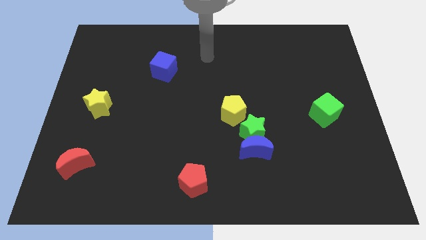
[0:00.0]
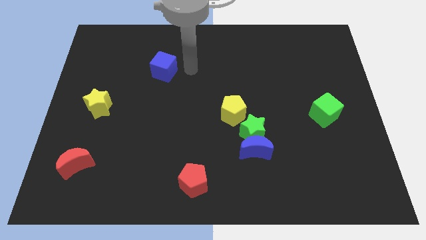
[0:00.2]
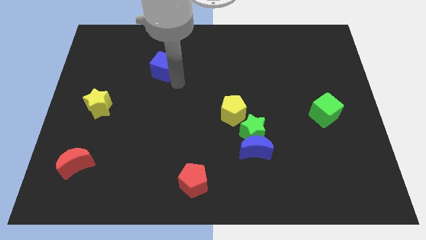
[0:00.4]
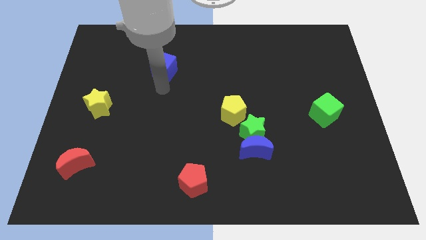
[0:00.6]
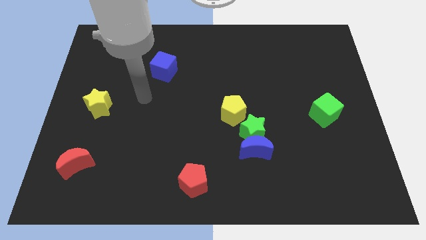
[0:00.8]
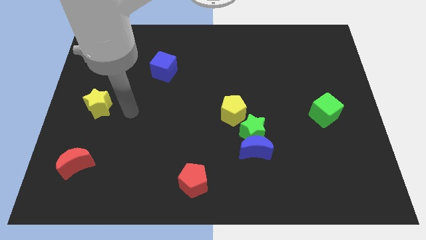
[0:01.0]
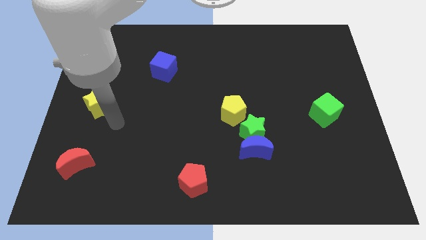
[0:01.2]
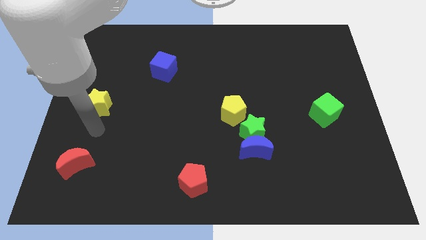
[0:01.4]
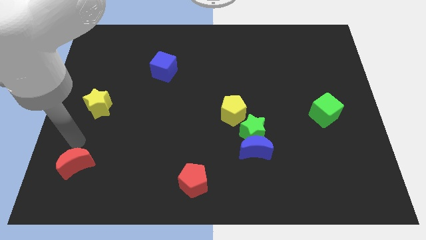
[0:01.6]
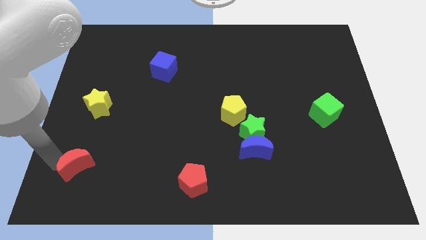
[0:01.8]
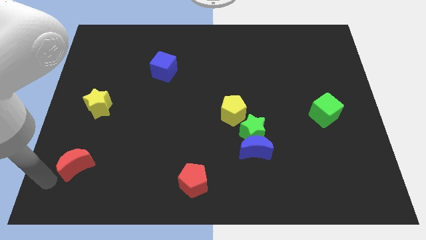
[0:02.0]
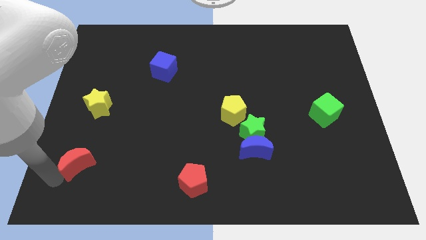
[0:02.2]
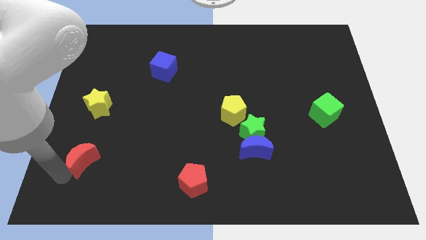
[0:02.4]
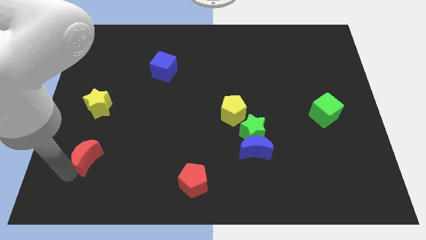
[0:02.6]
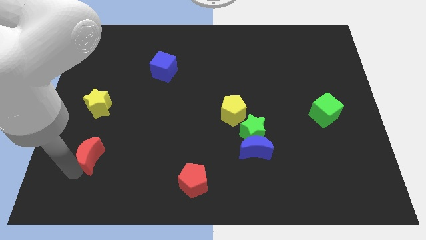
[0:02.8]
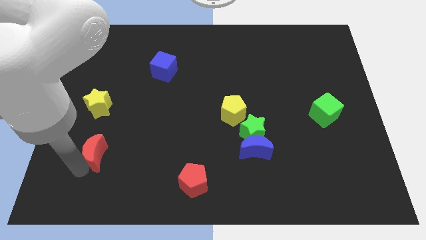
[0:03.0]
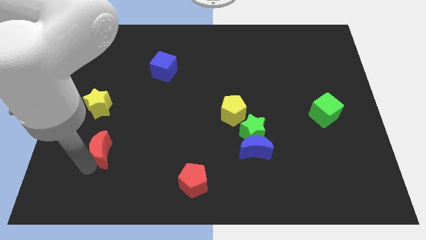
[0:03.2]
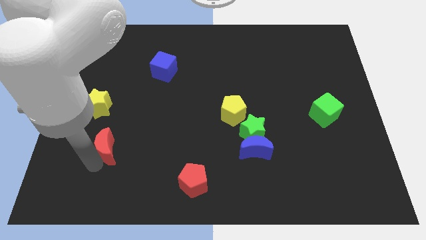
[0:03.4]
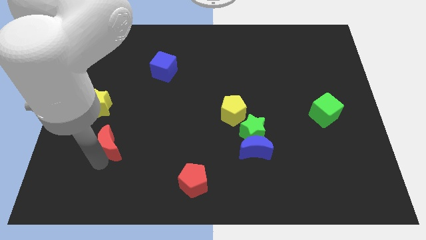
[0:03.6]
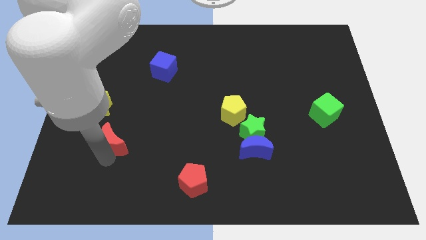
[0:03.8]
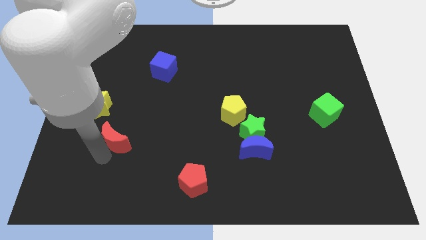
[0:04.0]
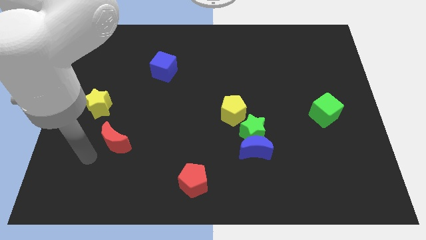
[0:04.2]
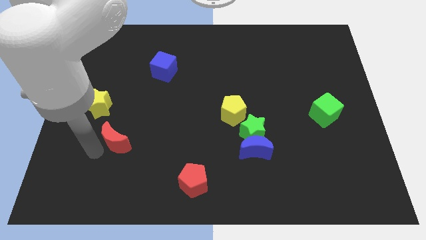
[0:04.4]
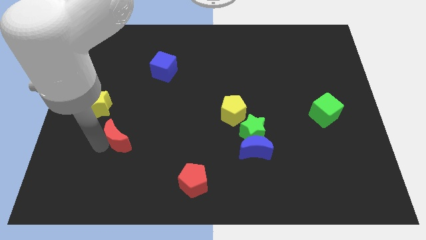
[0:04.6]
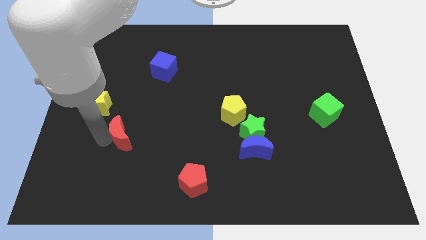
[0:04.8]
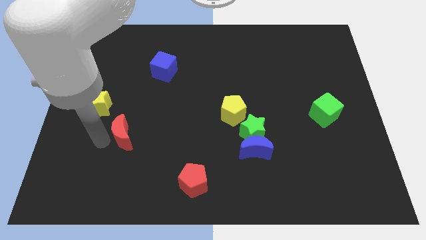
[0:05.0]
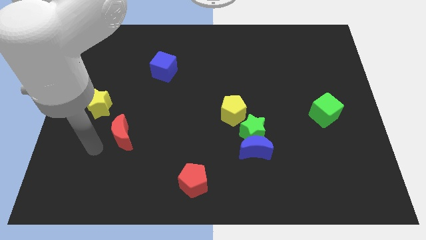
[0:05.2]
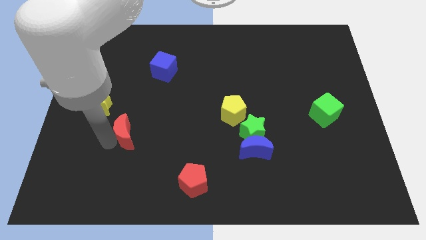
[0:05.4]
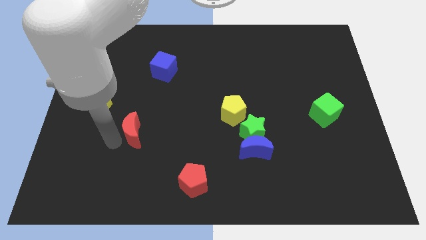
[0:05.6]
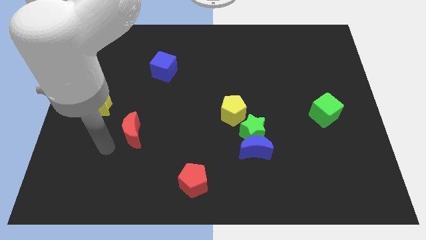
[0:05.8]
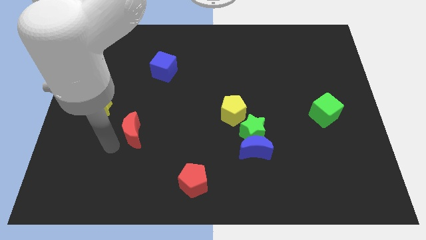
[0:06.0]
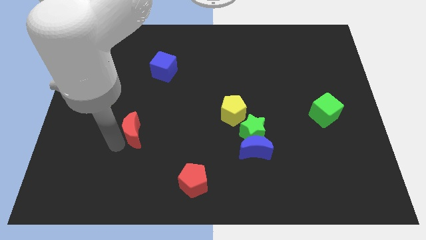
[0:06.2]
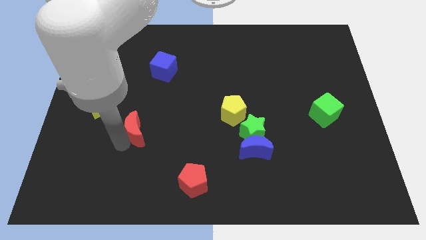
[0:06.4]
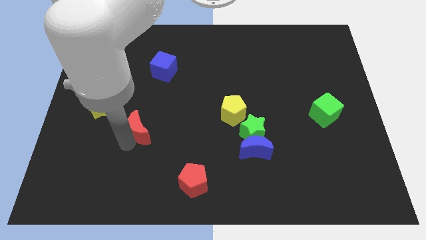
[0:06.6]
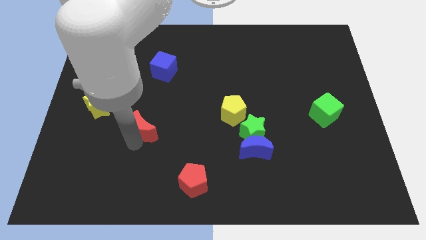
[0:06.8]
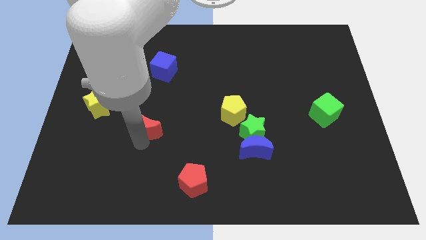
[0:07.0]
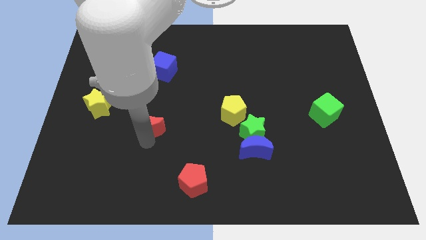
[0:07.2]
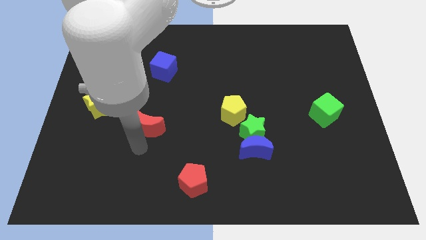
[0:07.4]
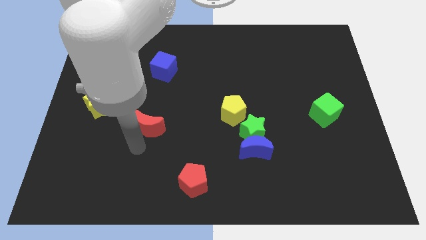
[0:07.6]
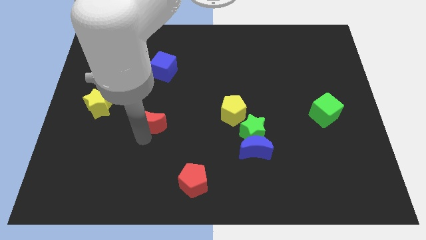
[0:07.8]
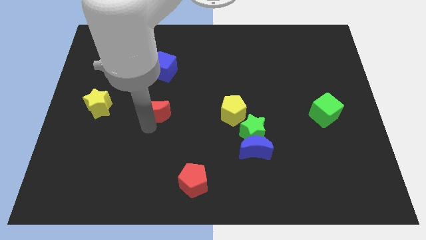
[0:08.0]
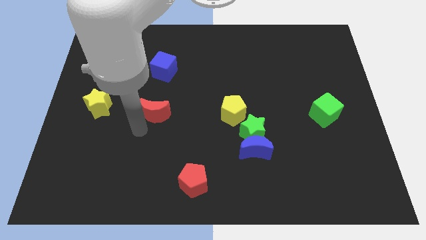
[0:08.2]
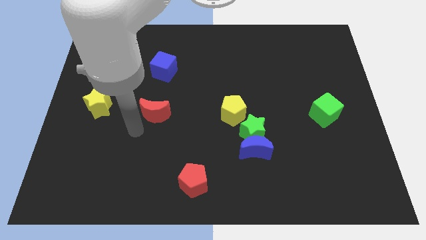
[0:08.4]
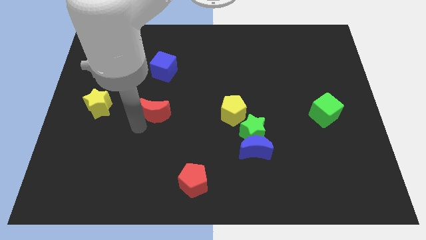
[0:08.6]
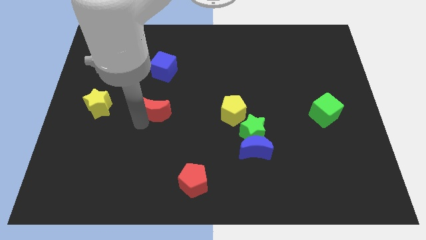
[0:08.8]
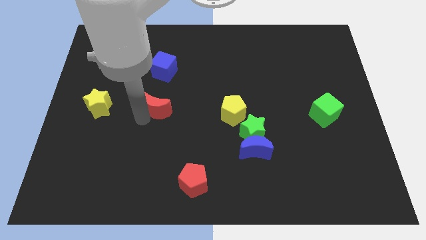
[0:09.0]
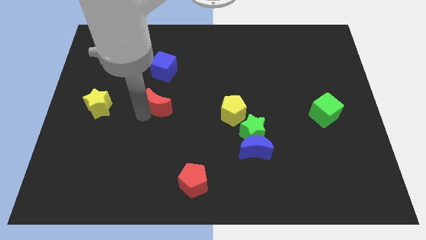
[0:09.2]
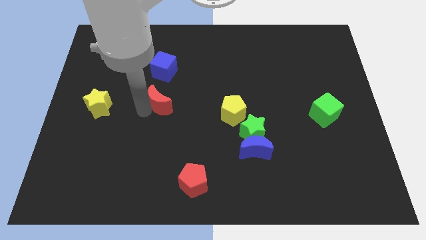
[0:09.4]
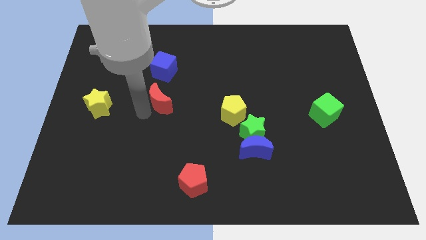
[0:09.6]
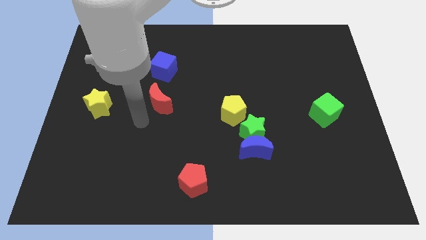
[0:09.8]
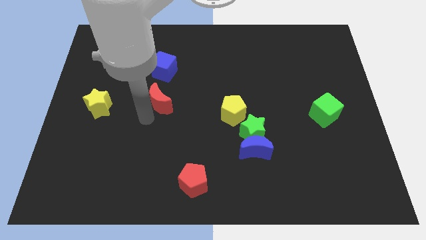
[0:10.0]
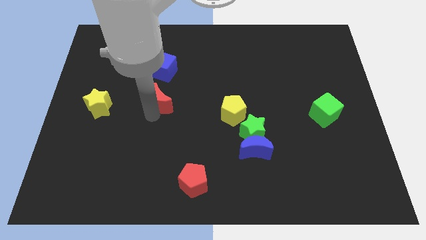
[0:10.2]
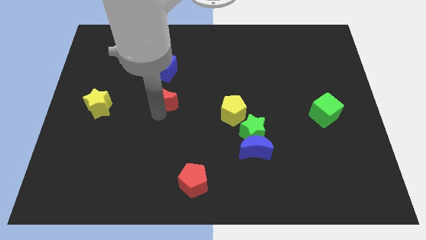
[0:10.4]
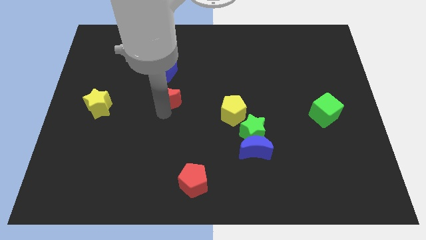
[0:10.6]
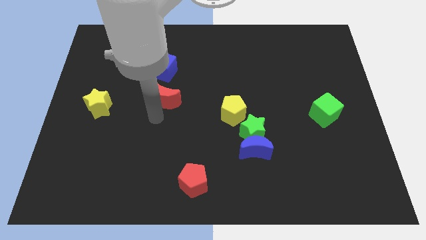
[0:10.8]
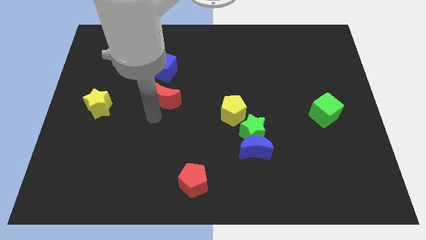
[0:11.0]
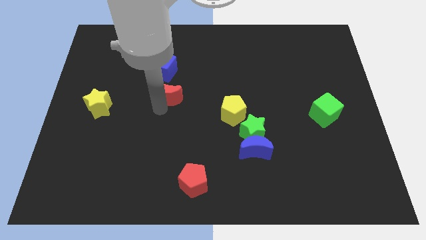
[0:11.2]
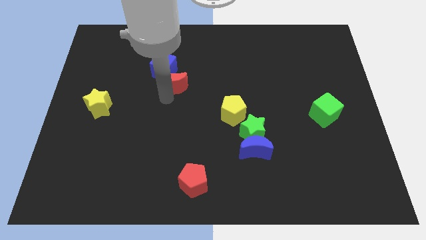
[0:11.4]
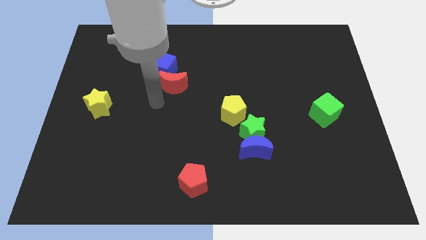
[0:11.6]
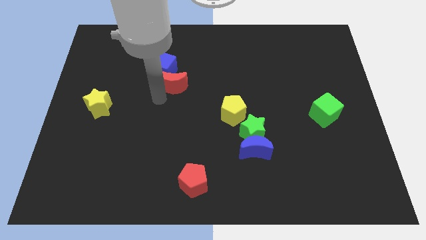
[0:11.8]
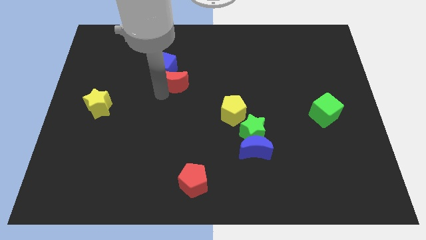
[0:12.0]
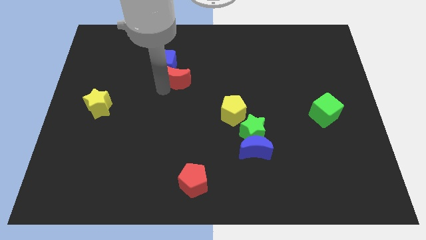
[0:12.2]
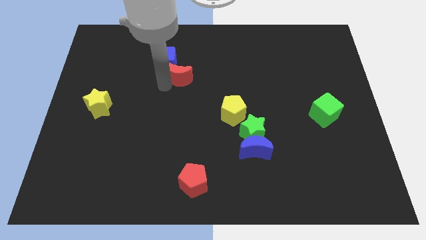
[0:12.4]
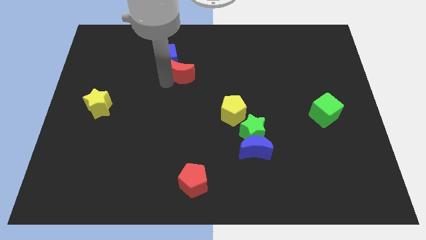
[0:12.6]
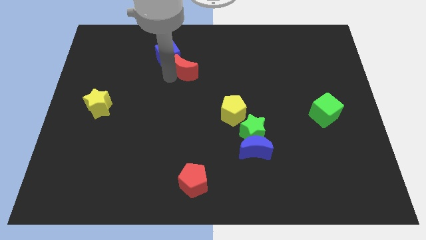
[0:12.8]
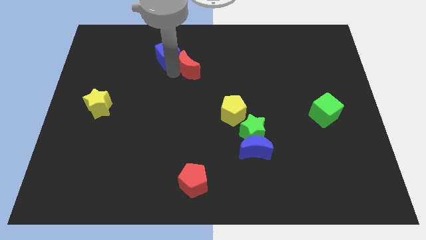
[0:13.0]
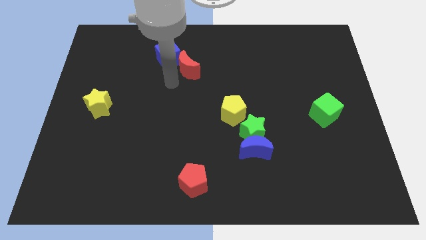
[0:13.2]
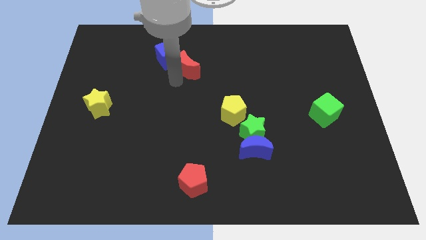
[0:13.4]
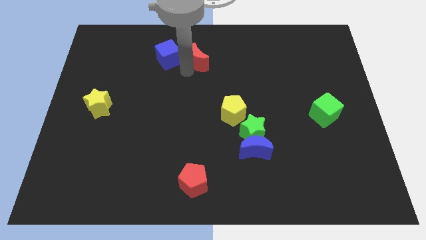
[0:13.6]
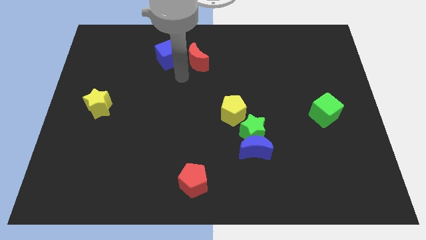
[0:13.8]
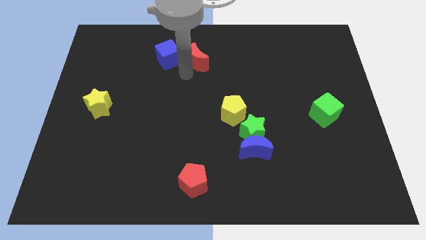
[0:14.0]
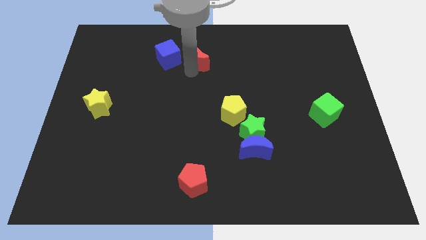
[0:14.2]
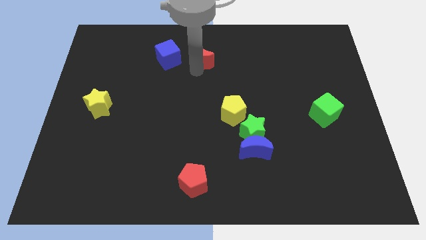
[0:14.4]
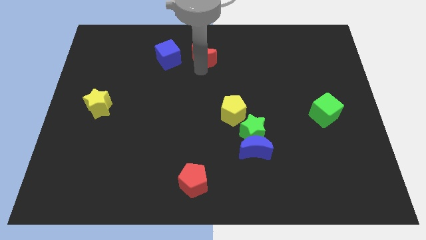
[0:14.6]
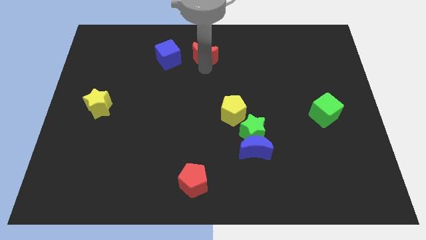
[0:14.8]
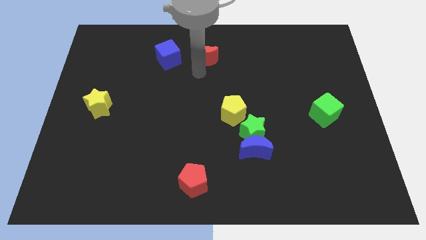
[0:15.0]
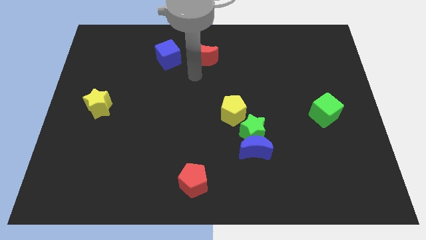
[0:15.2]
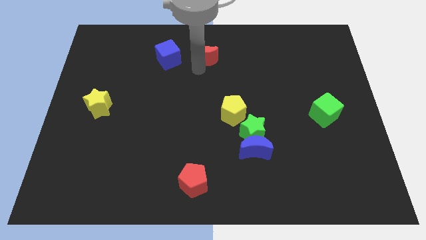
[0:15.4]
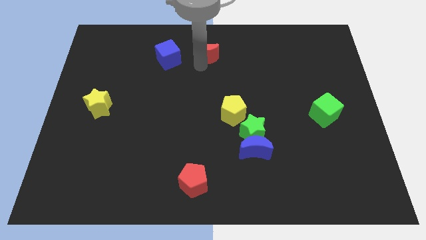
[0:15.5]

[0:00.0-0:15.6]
put the red moon to the top
